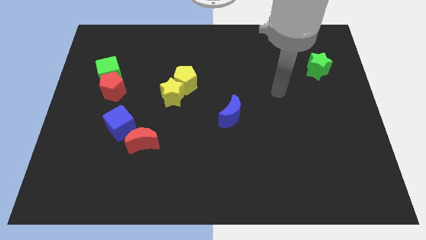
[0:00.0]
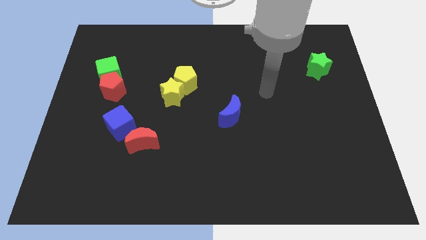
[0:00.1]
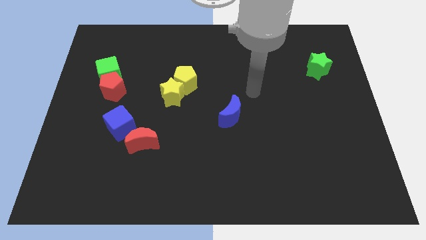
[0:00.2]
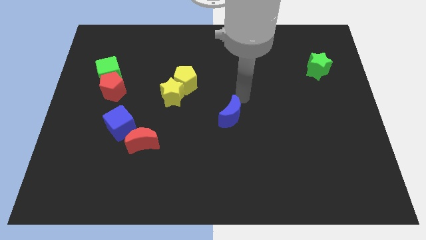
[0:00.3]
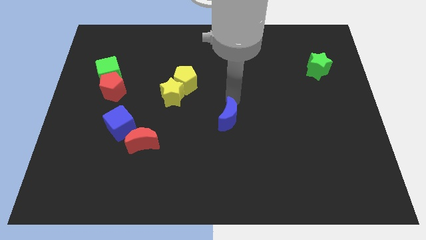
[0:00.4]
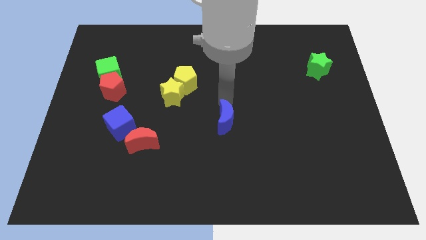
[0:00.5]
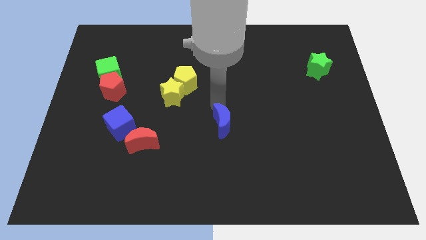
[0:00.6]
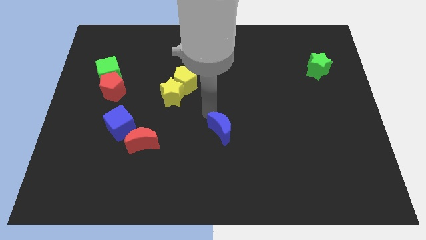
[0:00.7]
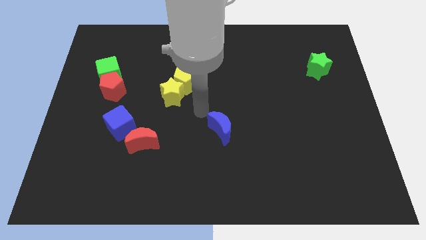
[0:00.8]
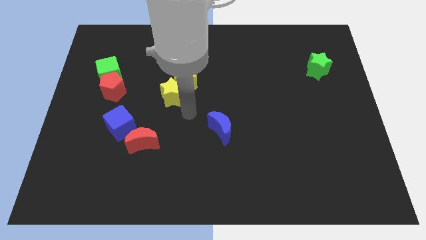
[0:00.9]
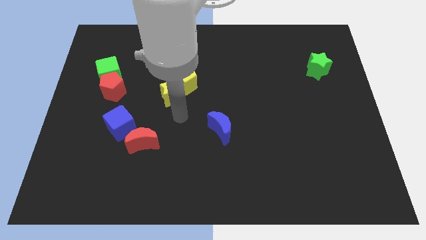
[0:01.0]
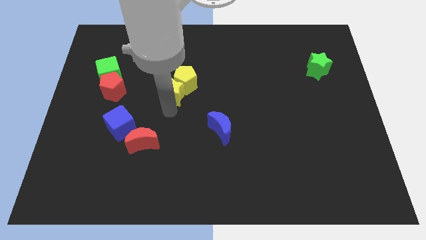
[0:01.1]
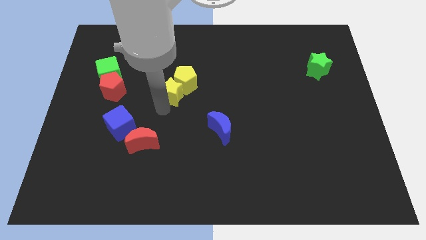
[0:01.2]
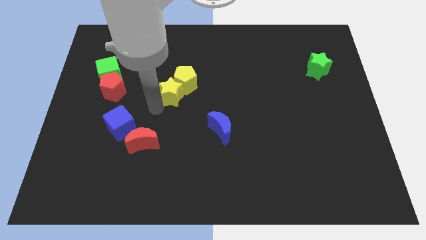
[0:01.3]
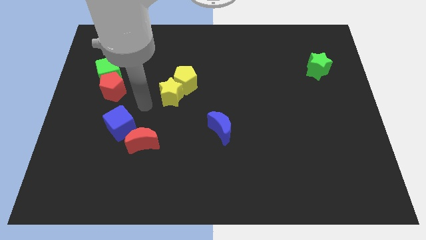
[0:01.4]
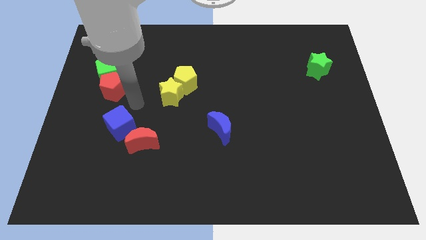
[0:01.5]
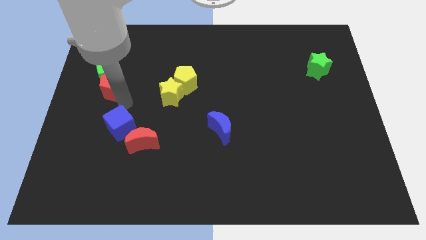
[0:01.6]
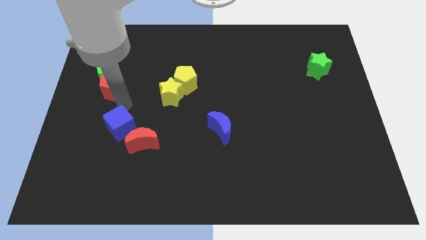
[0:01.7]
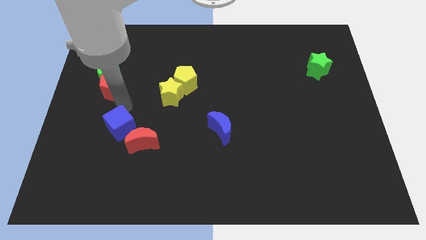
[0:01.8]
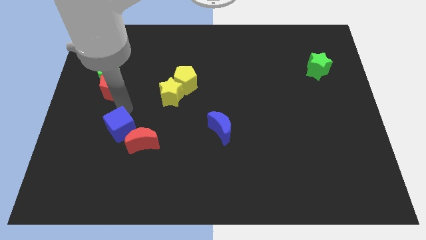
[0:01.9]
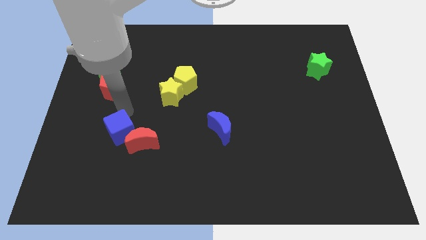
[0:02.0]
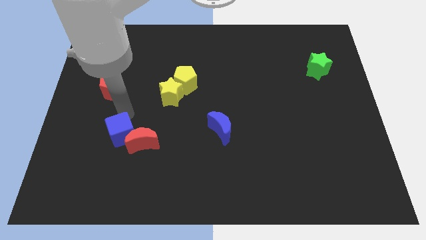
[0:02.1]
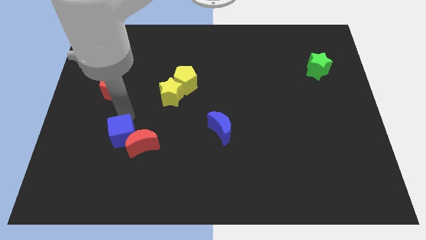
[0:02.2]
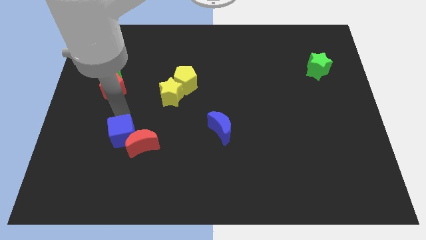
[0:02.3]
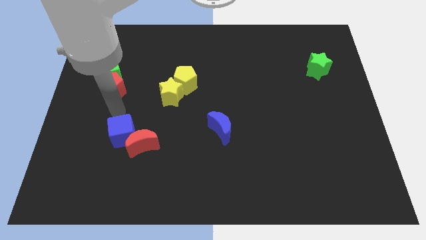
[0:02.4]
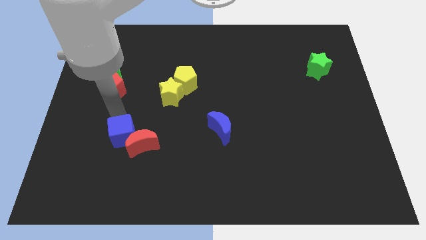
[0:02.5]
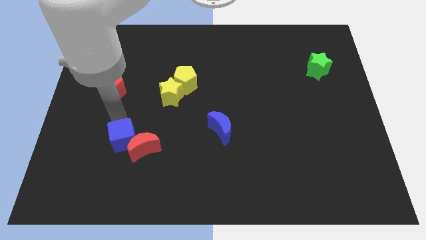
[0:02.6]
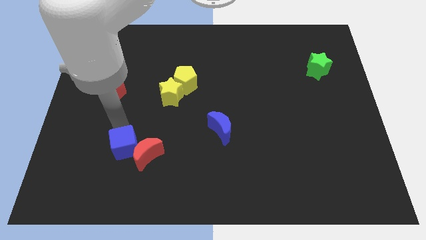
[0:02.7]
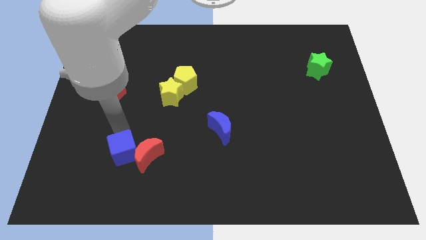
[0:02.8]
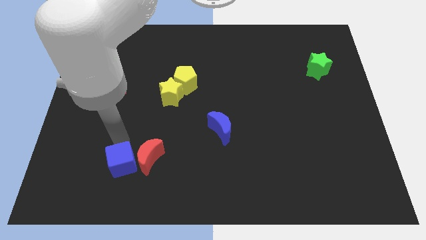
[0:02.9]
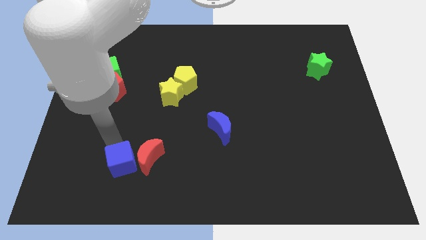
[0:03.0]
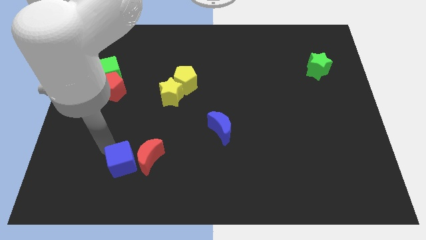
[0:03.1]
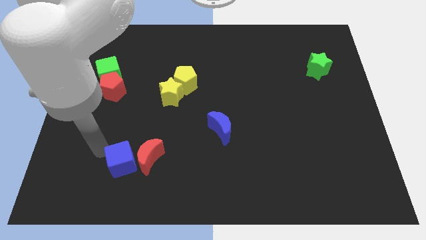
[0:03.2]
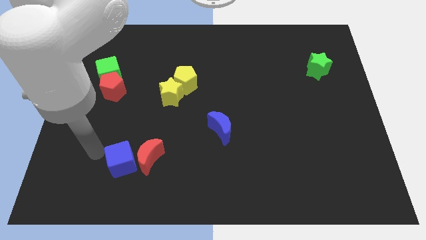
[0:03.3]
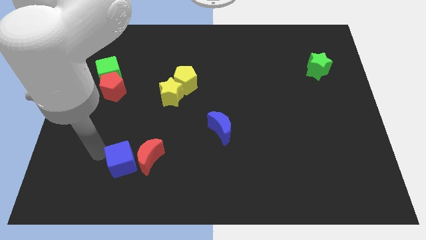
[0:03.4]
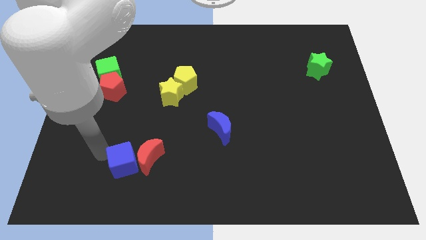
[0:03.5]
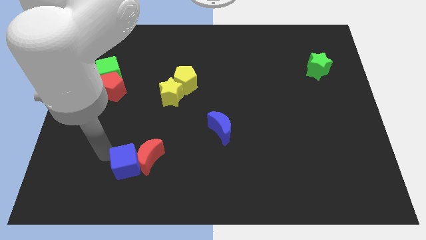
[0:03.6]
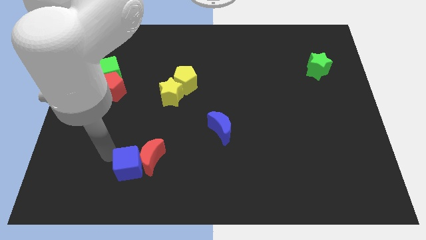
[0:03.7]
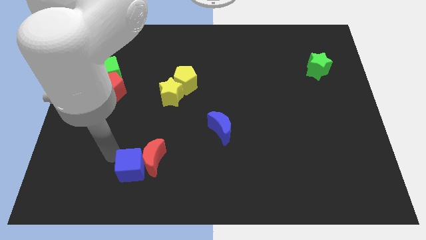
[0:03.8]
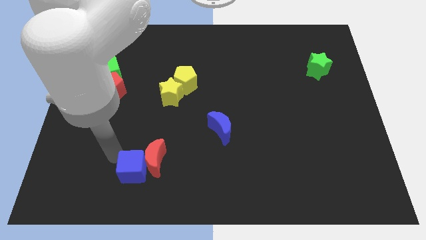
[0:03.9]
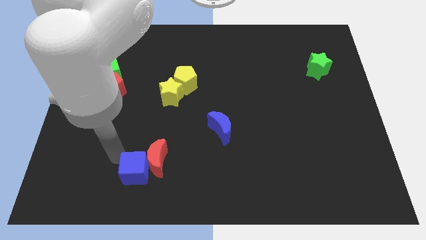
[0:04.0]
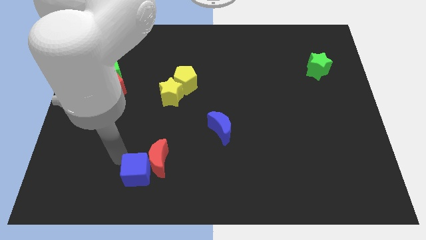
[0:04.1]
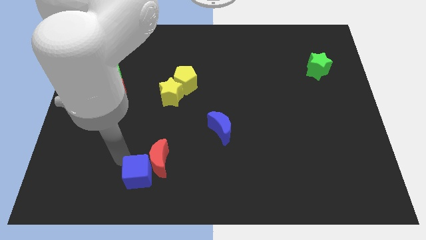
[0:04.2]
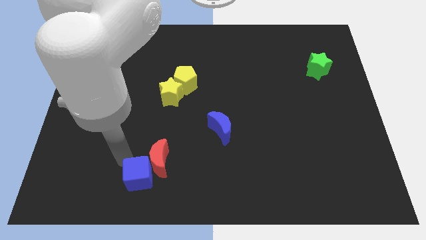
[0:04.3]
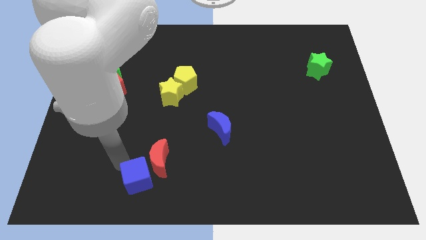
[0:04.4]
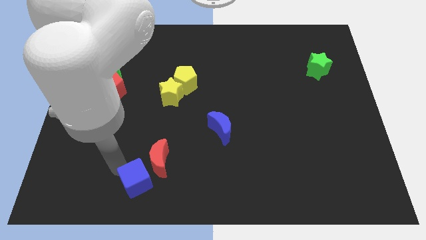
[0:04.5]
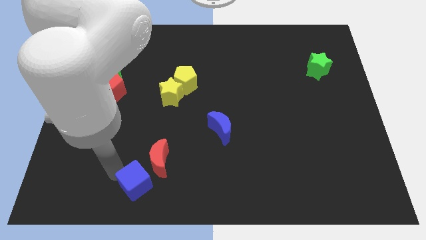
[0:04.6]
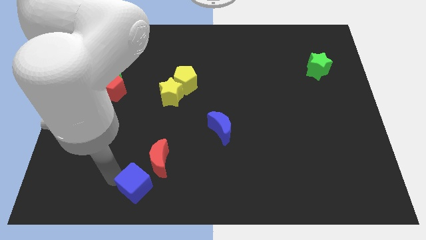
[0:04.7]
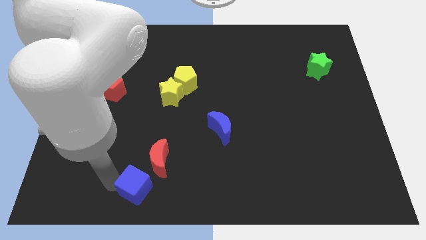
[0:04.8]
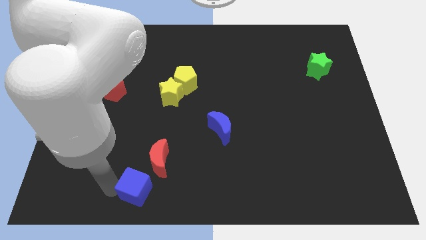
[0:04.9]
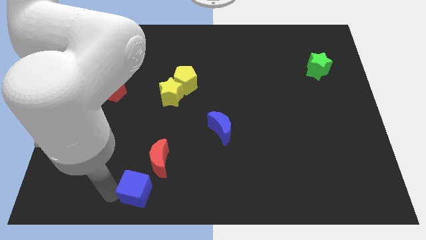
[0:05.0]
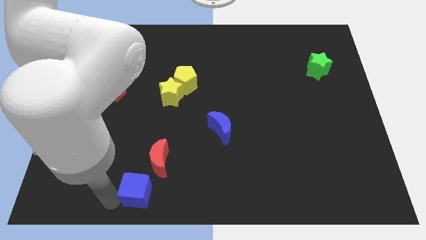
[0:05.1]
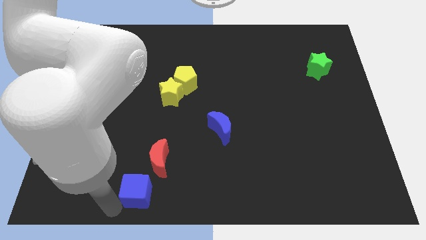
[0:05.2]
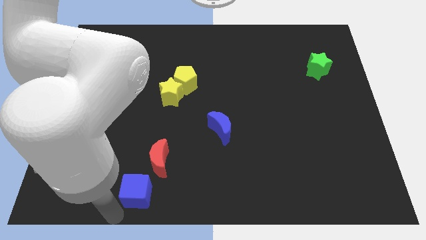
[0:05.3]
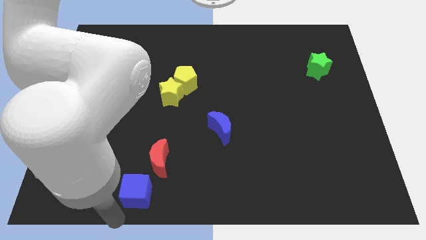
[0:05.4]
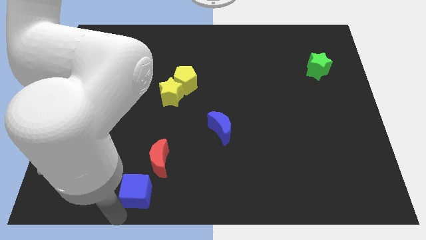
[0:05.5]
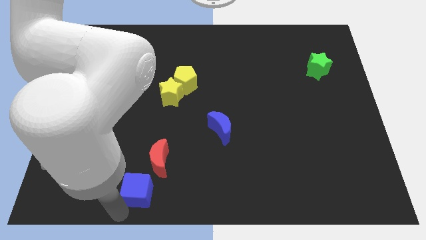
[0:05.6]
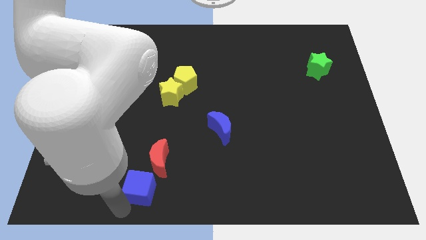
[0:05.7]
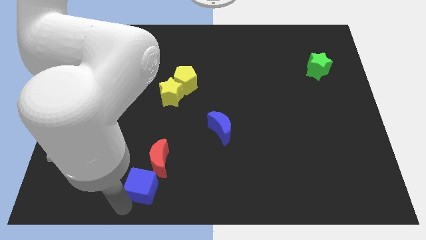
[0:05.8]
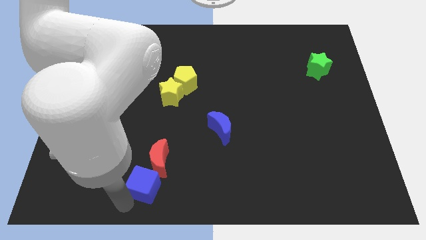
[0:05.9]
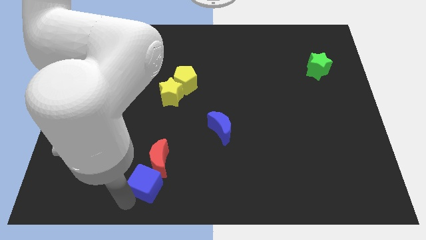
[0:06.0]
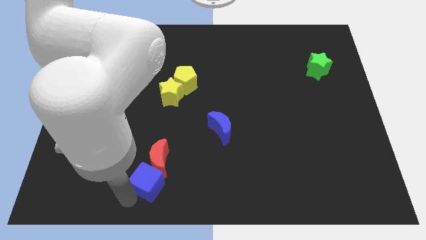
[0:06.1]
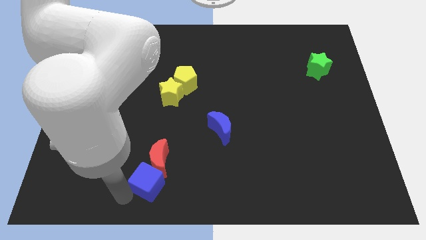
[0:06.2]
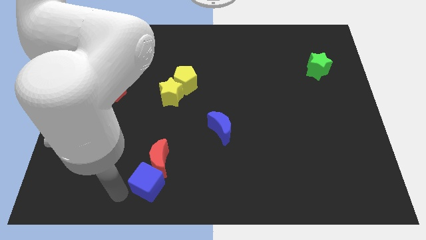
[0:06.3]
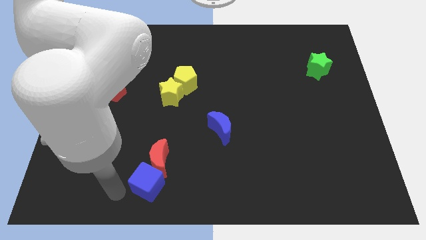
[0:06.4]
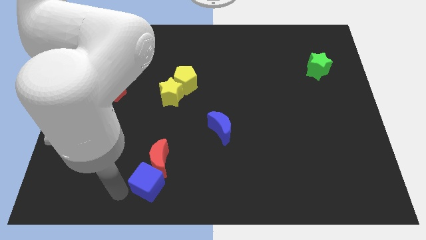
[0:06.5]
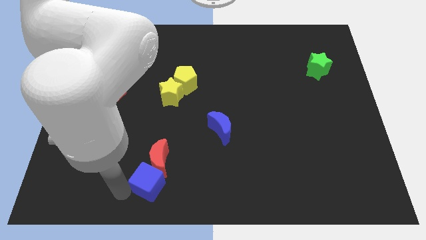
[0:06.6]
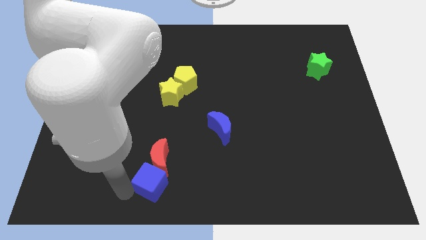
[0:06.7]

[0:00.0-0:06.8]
put the blue cube to the bottom side
